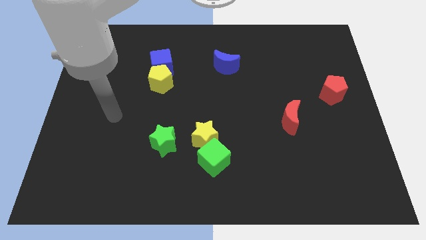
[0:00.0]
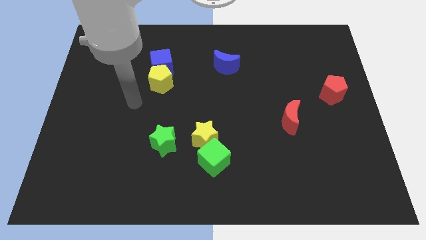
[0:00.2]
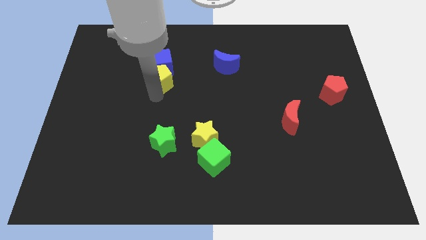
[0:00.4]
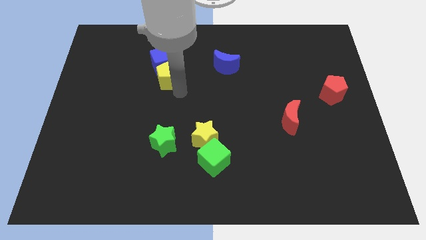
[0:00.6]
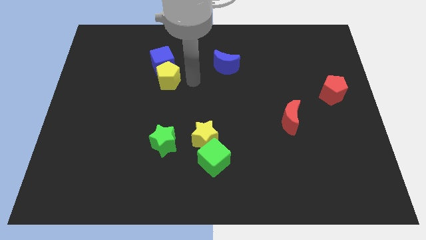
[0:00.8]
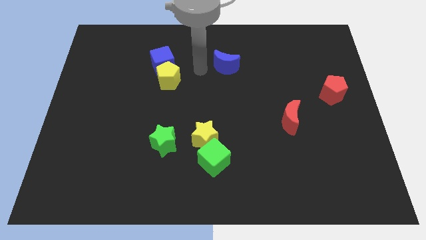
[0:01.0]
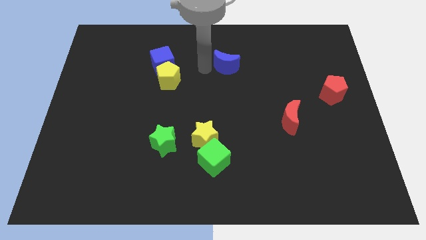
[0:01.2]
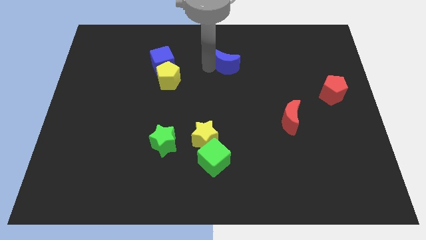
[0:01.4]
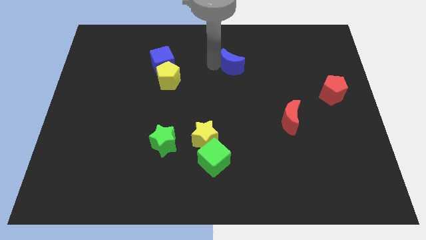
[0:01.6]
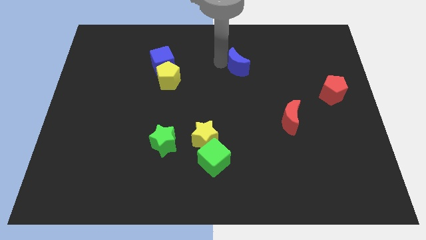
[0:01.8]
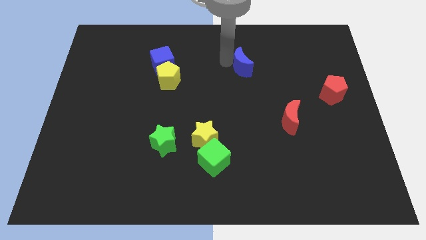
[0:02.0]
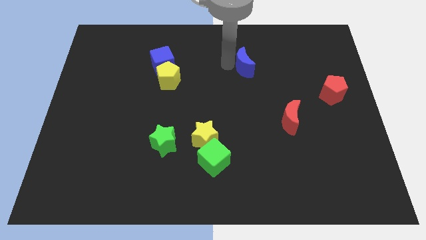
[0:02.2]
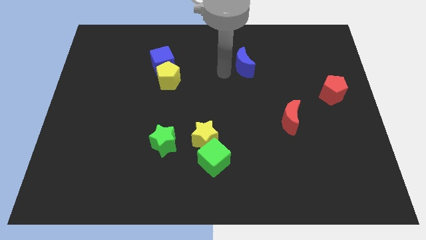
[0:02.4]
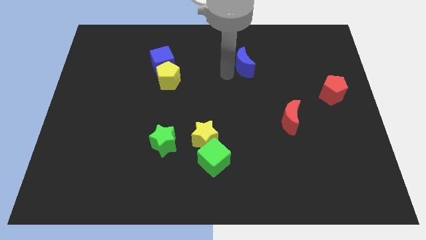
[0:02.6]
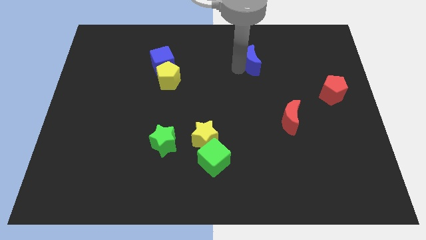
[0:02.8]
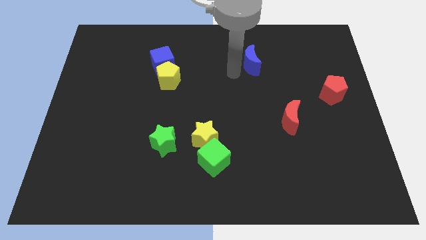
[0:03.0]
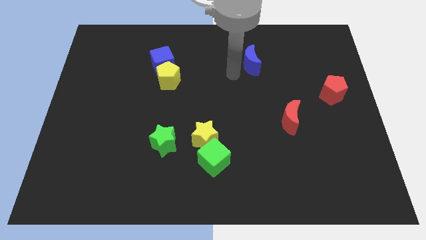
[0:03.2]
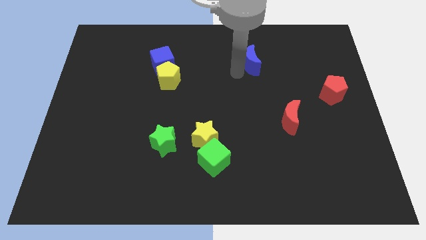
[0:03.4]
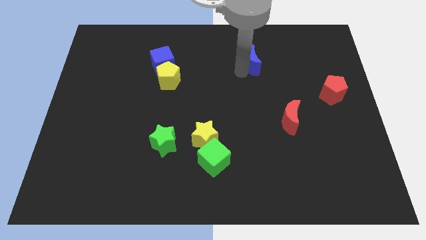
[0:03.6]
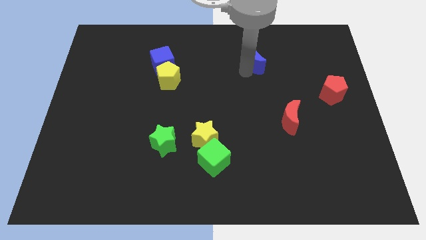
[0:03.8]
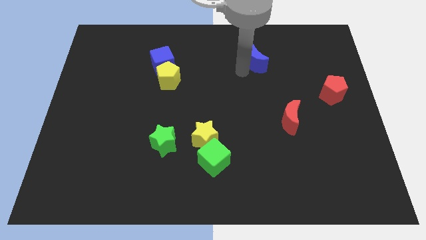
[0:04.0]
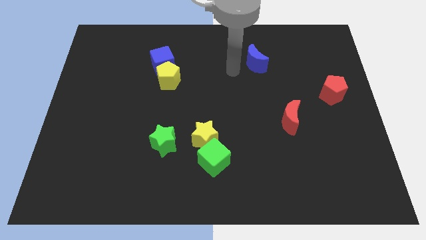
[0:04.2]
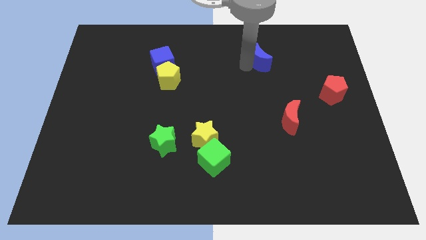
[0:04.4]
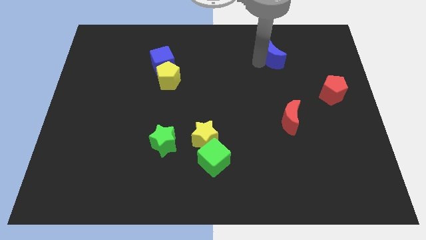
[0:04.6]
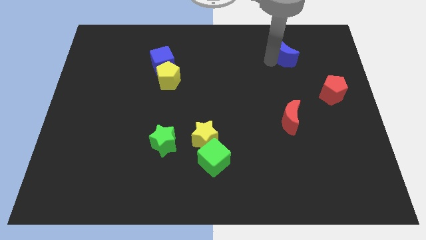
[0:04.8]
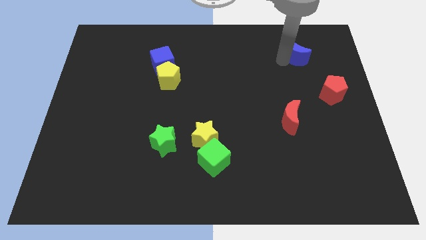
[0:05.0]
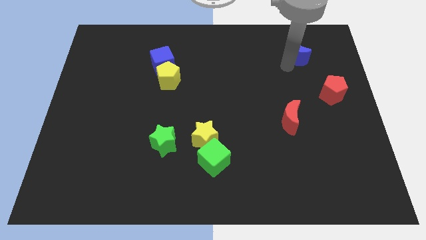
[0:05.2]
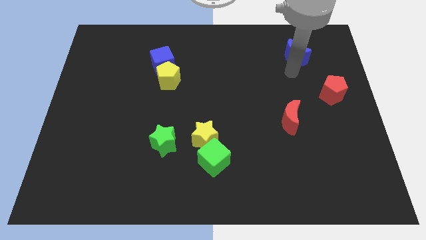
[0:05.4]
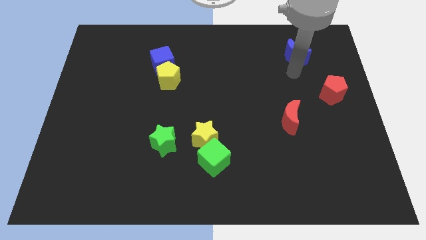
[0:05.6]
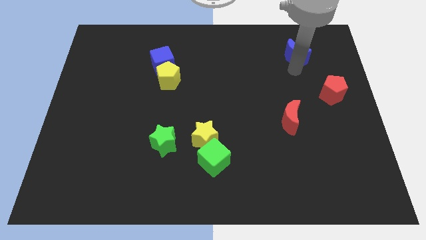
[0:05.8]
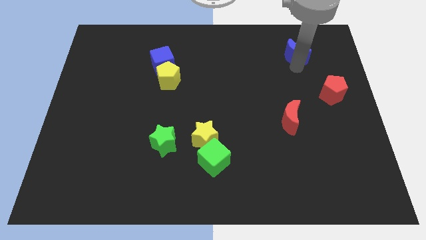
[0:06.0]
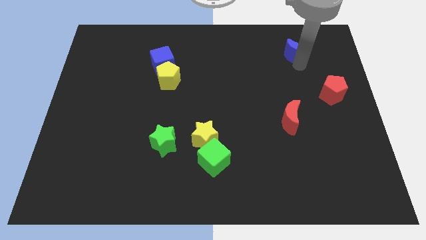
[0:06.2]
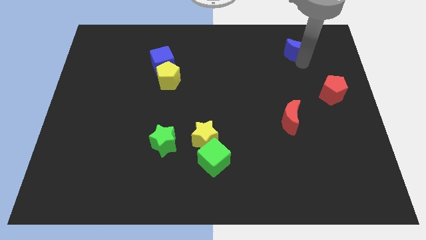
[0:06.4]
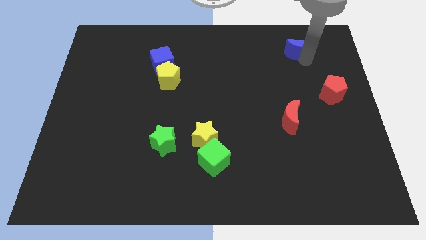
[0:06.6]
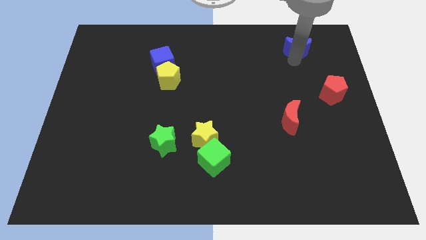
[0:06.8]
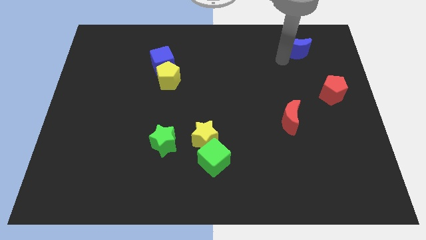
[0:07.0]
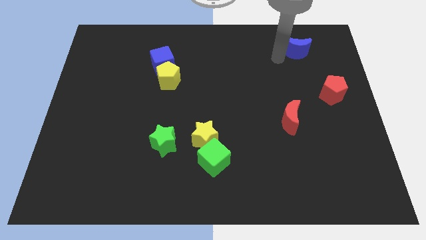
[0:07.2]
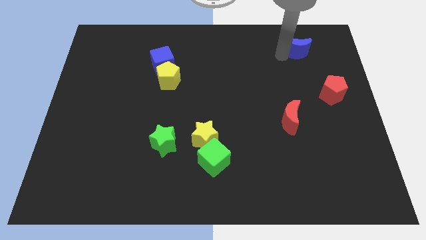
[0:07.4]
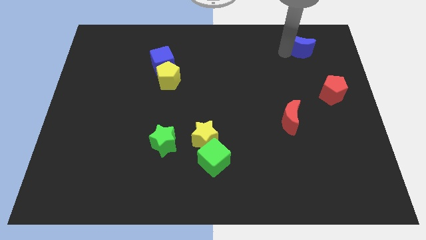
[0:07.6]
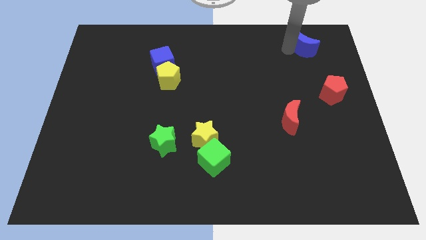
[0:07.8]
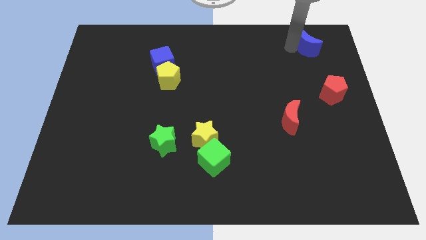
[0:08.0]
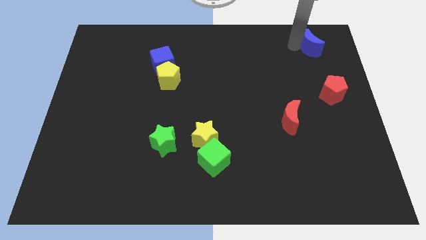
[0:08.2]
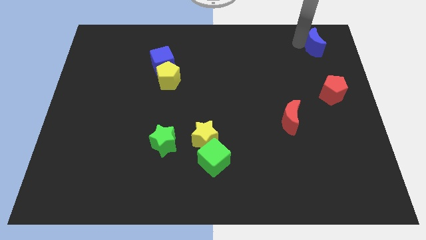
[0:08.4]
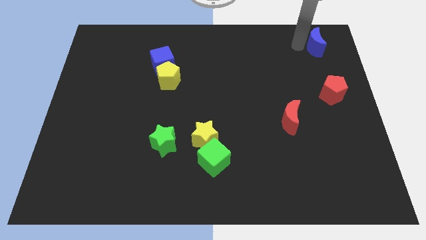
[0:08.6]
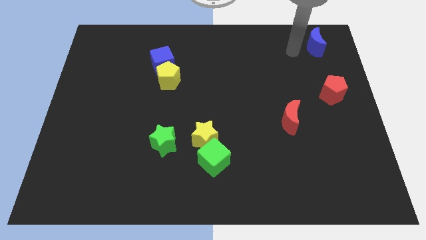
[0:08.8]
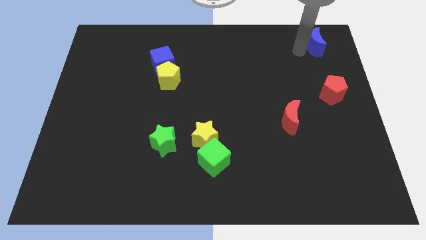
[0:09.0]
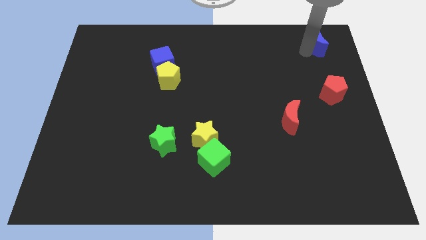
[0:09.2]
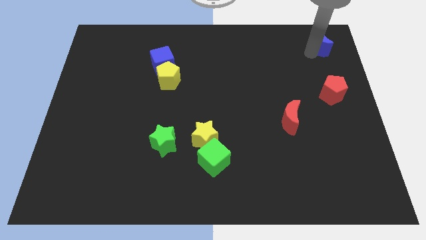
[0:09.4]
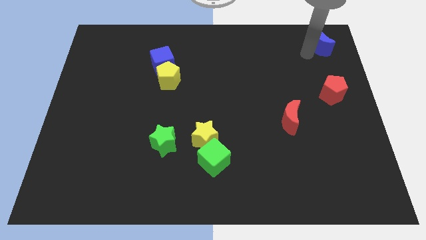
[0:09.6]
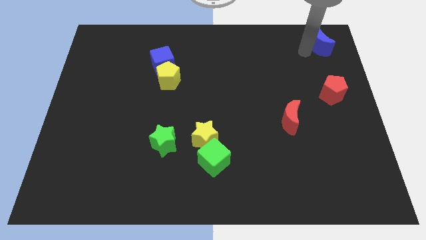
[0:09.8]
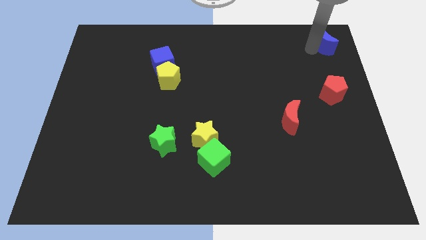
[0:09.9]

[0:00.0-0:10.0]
put the blue moon to the top right corner
